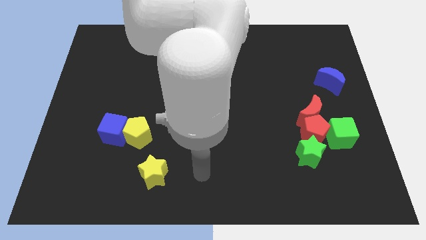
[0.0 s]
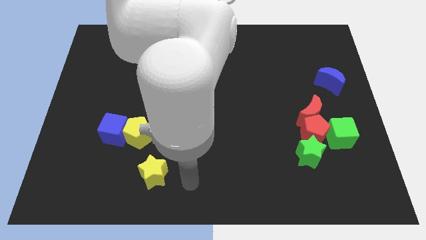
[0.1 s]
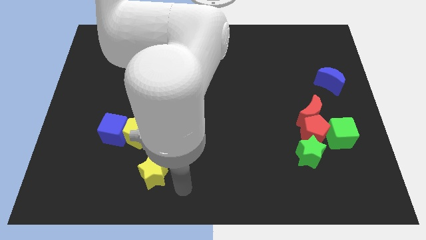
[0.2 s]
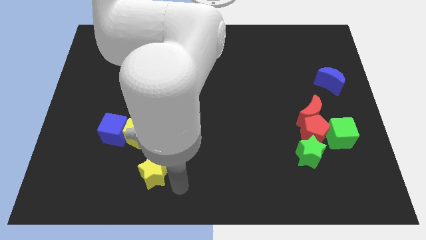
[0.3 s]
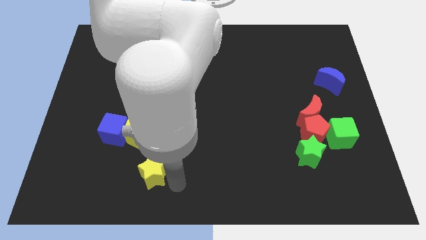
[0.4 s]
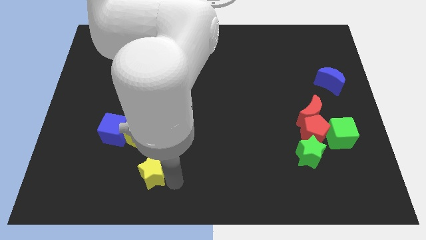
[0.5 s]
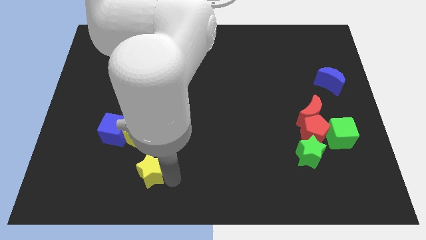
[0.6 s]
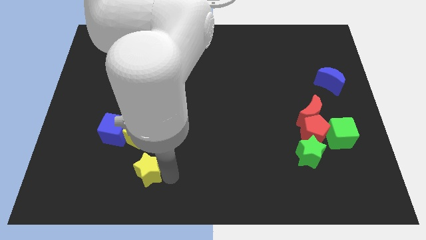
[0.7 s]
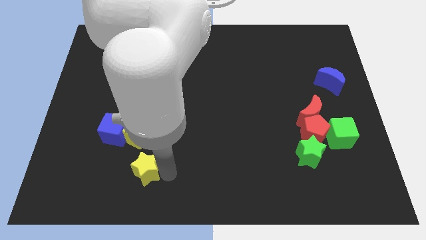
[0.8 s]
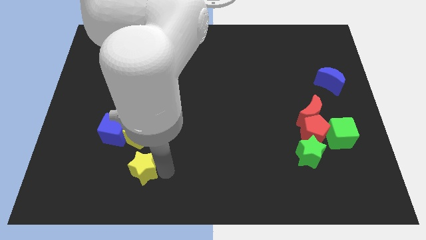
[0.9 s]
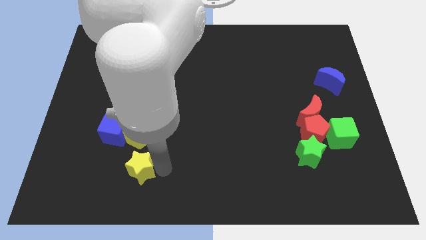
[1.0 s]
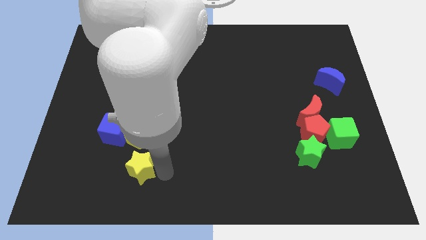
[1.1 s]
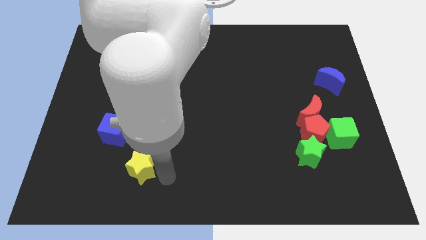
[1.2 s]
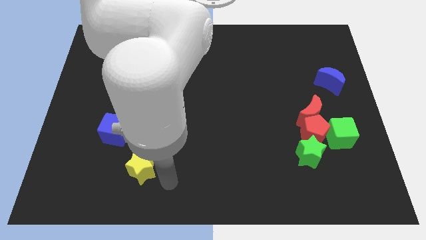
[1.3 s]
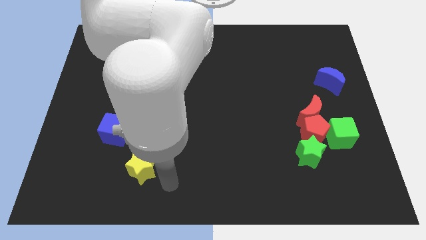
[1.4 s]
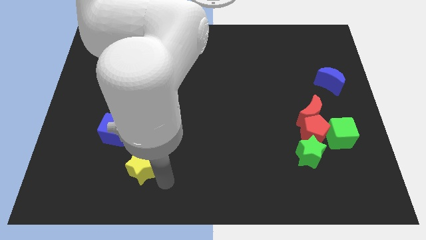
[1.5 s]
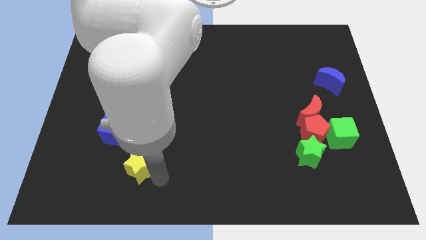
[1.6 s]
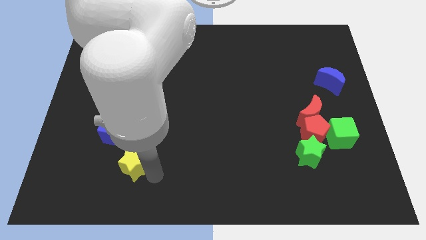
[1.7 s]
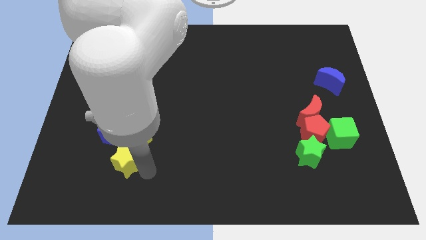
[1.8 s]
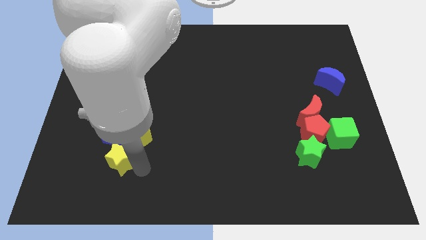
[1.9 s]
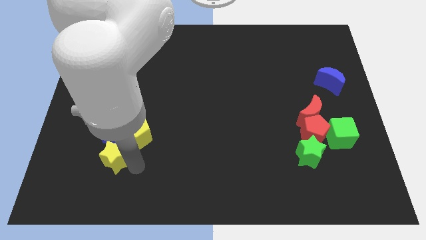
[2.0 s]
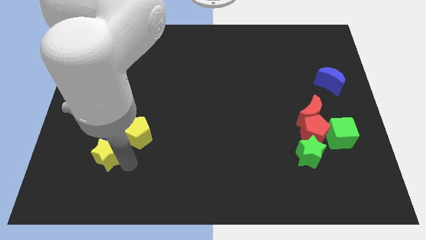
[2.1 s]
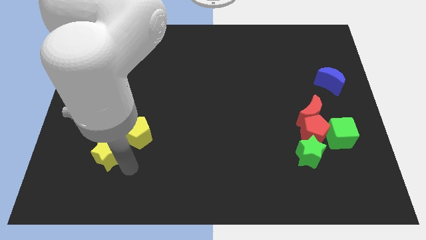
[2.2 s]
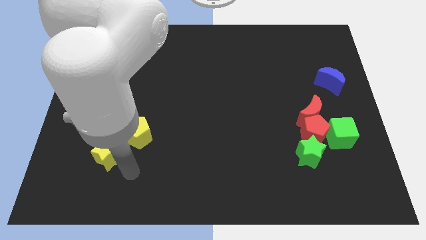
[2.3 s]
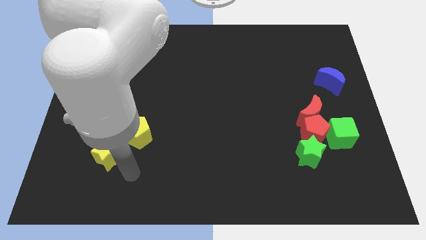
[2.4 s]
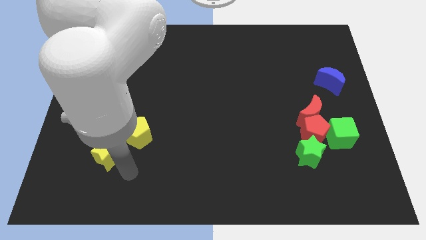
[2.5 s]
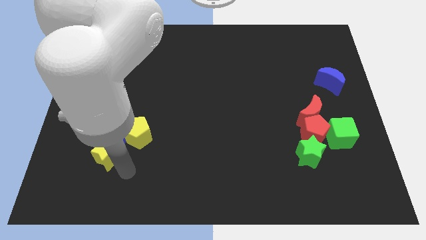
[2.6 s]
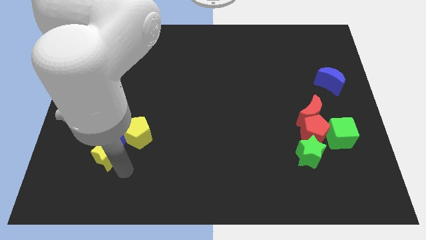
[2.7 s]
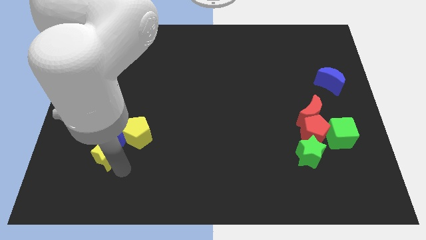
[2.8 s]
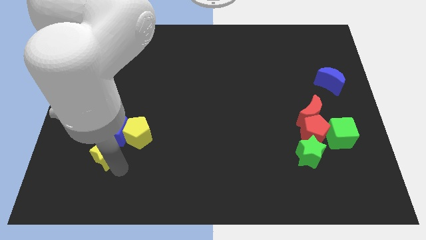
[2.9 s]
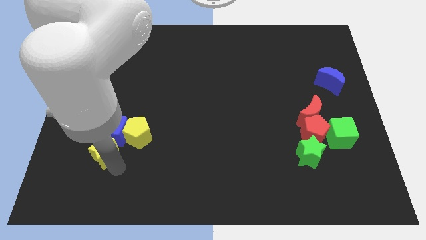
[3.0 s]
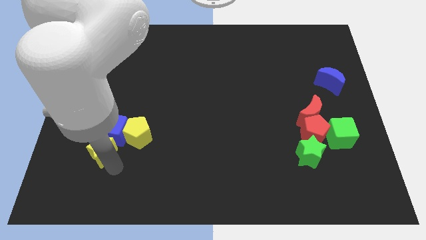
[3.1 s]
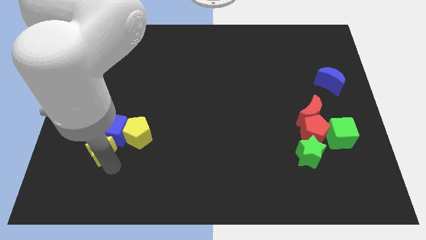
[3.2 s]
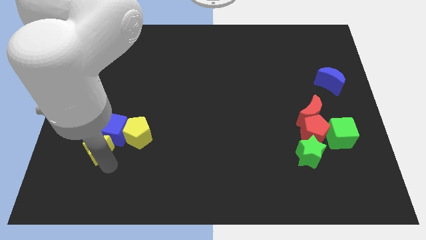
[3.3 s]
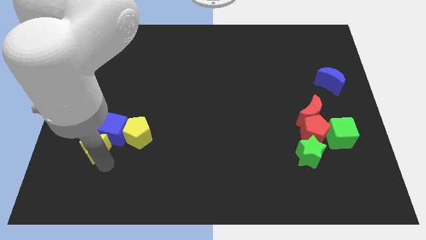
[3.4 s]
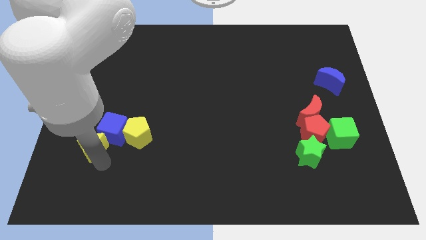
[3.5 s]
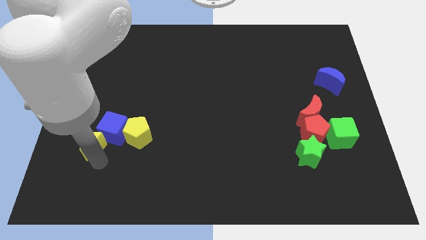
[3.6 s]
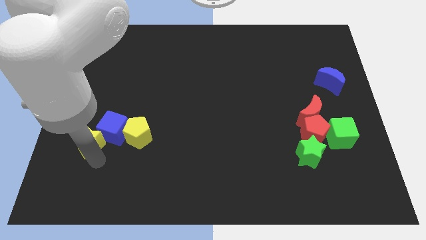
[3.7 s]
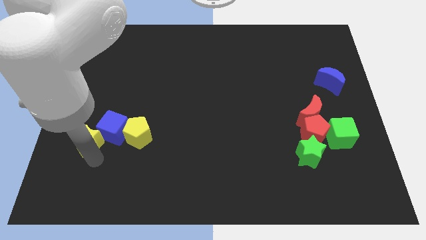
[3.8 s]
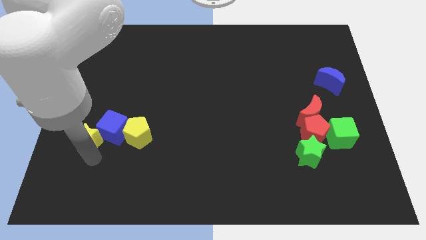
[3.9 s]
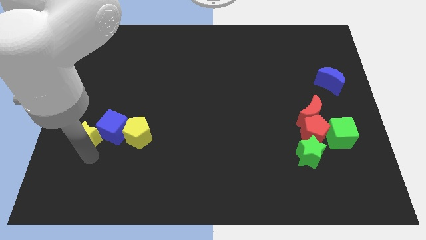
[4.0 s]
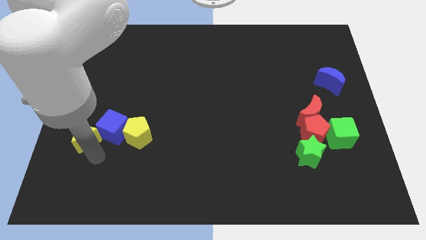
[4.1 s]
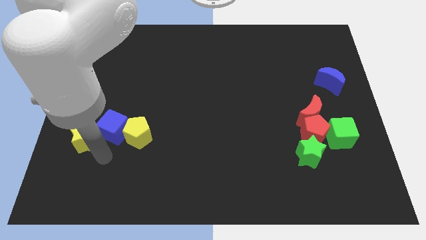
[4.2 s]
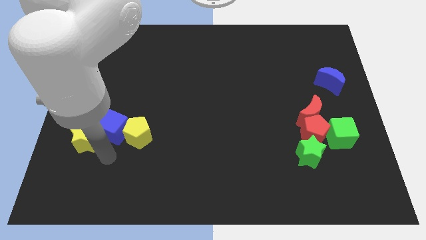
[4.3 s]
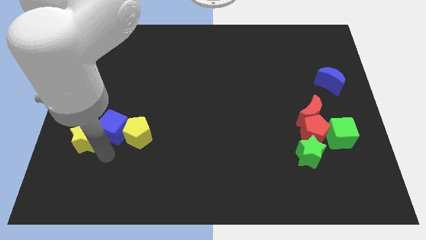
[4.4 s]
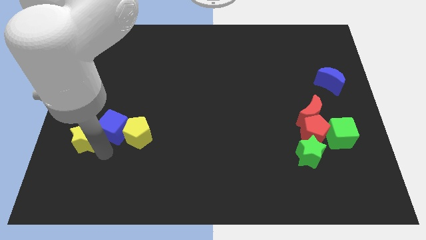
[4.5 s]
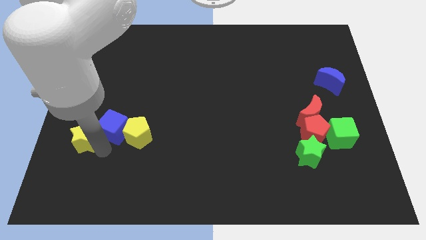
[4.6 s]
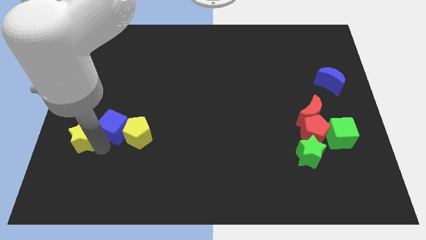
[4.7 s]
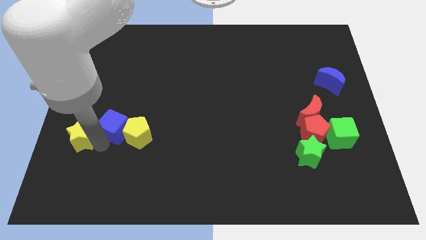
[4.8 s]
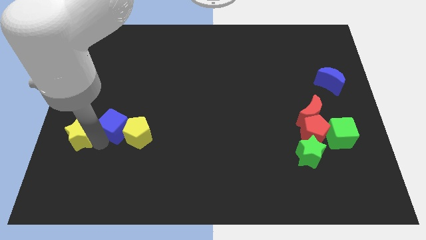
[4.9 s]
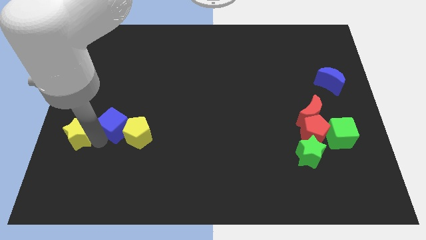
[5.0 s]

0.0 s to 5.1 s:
move the yellow star to the center left
